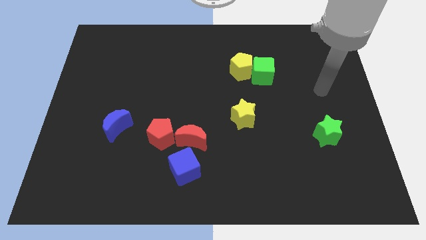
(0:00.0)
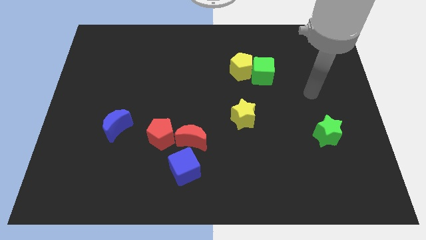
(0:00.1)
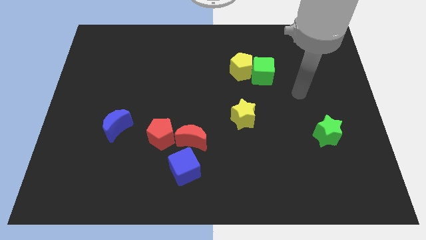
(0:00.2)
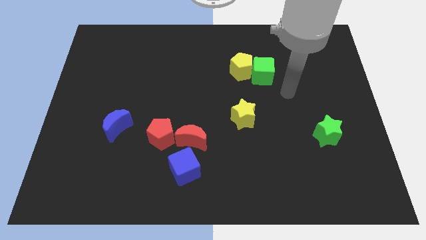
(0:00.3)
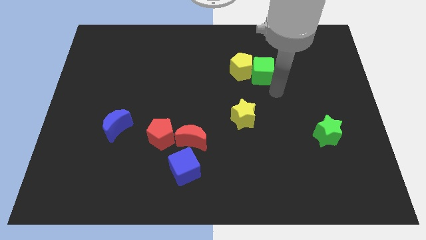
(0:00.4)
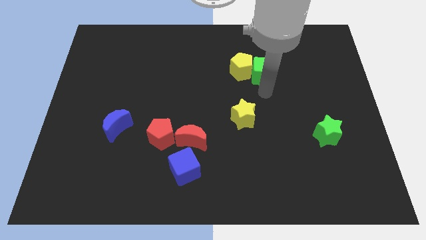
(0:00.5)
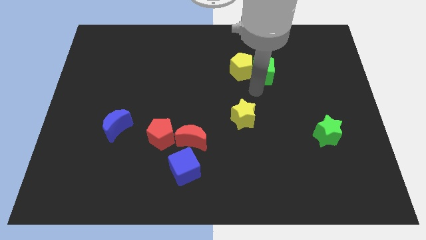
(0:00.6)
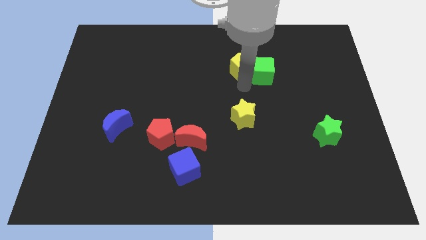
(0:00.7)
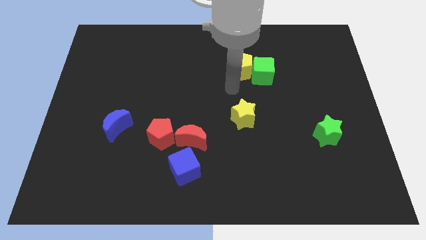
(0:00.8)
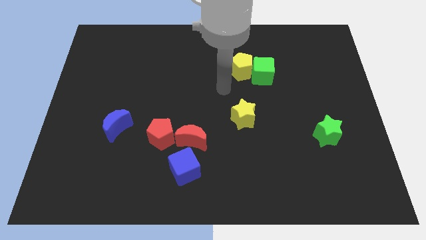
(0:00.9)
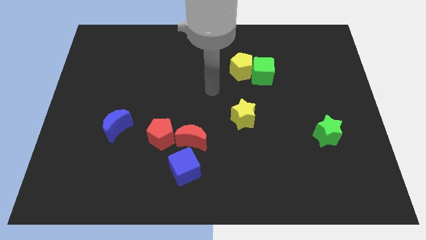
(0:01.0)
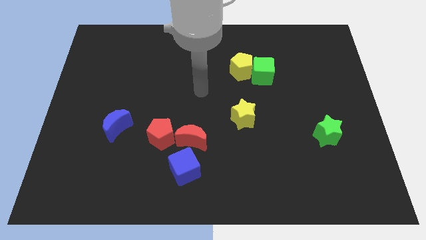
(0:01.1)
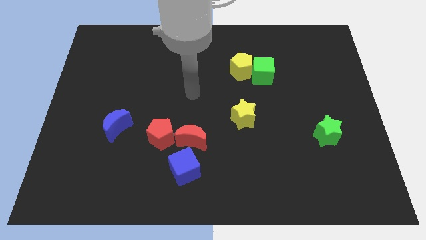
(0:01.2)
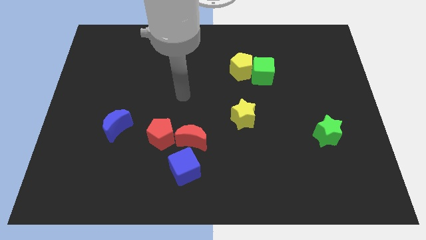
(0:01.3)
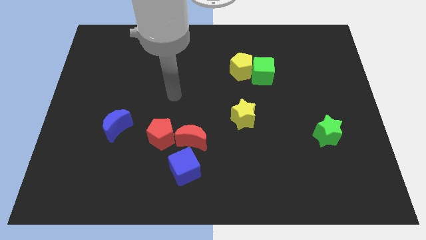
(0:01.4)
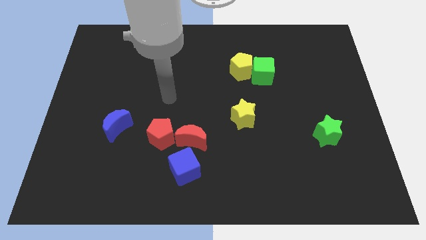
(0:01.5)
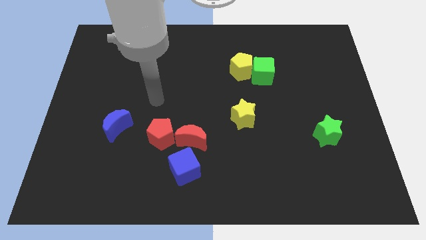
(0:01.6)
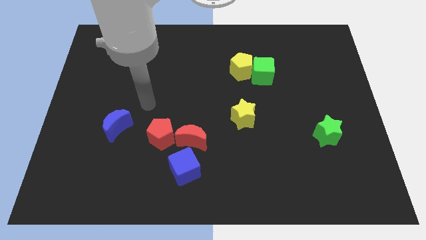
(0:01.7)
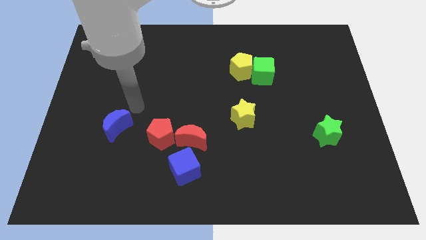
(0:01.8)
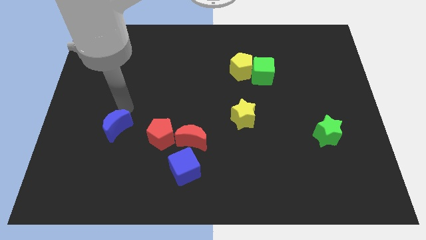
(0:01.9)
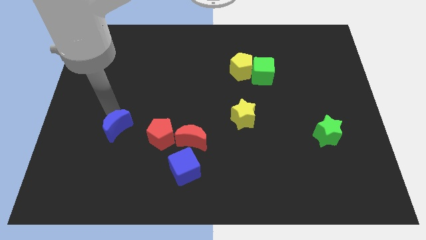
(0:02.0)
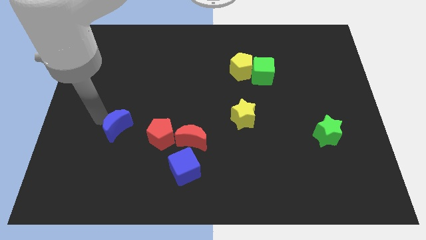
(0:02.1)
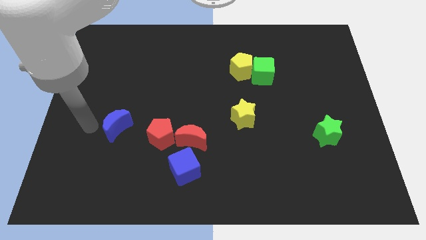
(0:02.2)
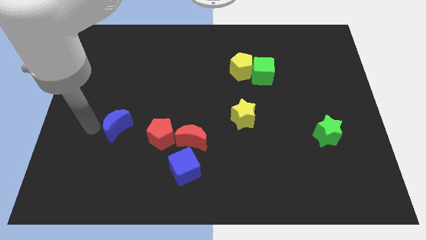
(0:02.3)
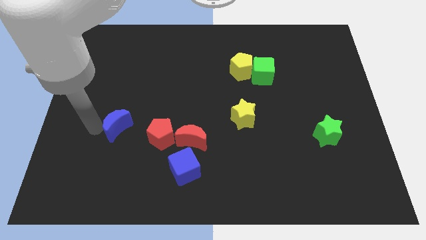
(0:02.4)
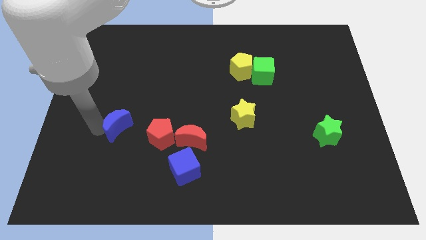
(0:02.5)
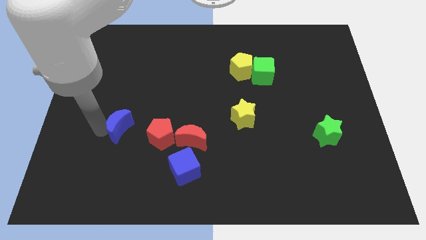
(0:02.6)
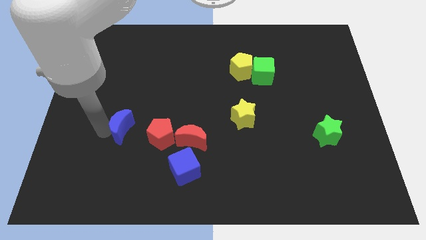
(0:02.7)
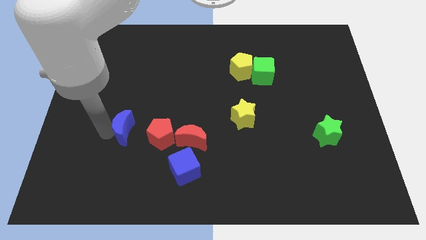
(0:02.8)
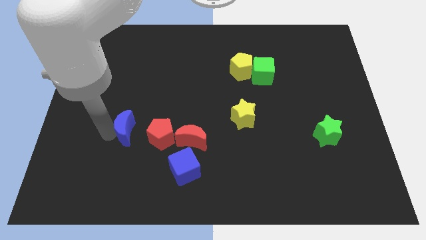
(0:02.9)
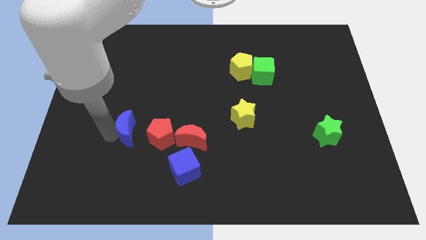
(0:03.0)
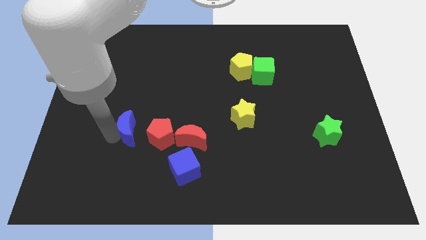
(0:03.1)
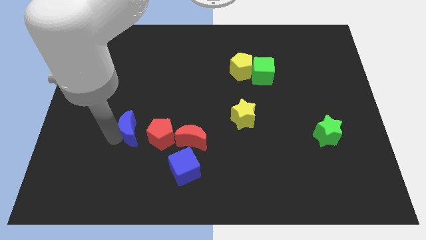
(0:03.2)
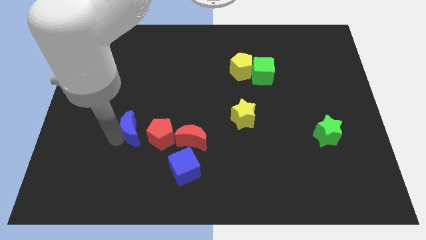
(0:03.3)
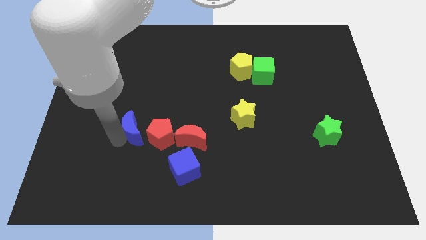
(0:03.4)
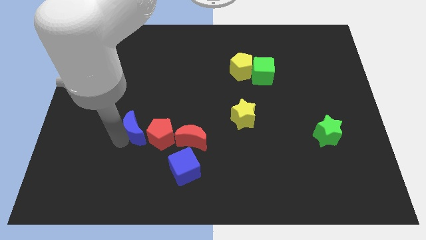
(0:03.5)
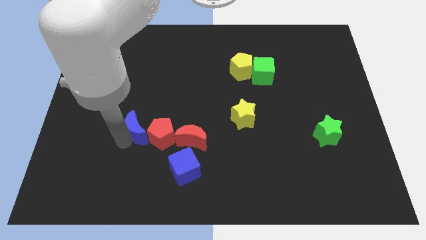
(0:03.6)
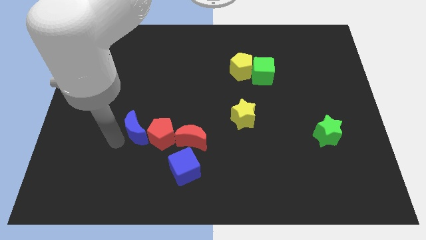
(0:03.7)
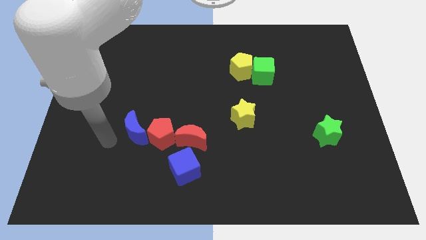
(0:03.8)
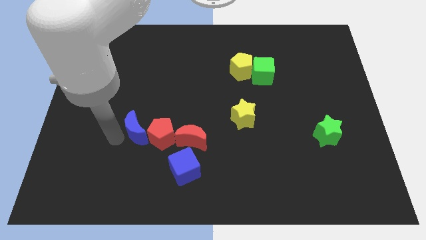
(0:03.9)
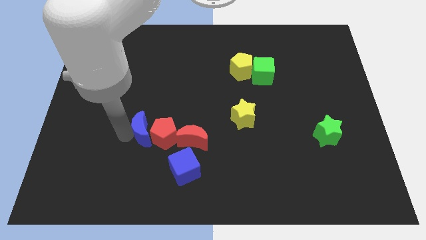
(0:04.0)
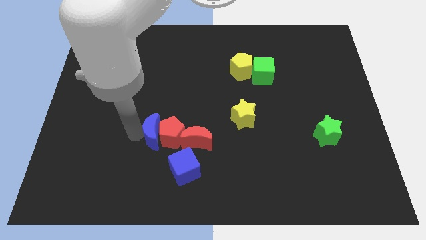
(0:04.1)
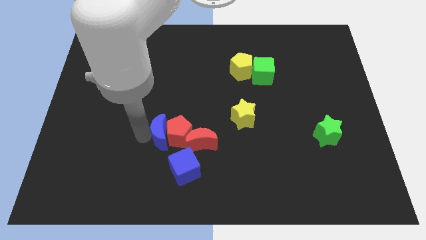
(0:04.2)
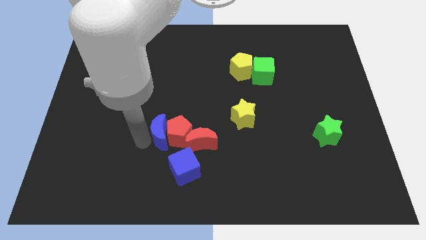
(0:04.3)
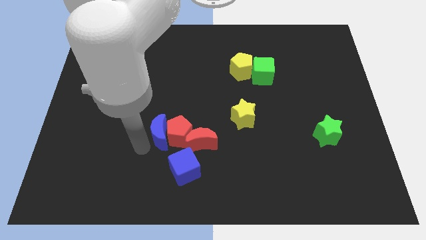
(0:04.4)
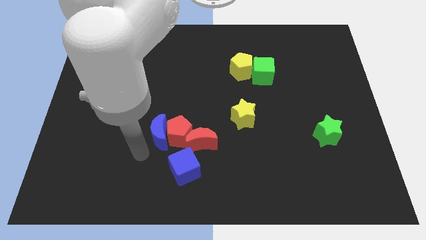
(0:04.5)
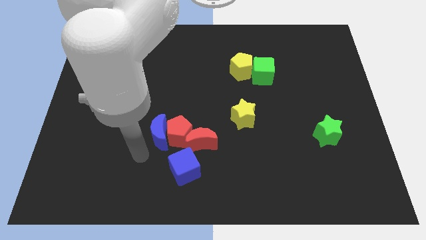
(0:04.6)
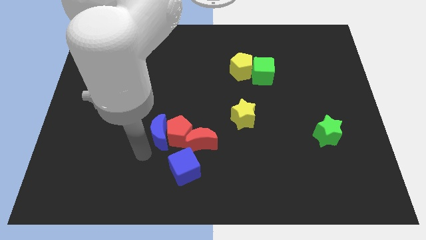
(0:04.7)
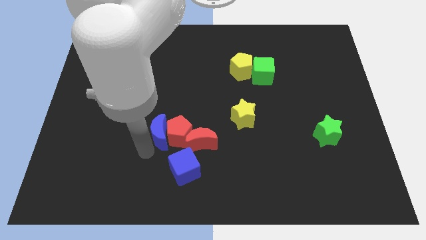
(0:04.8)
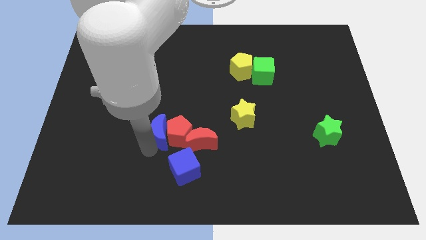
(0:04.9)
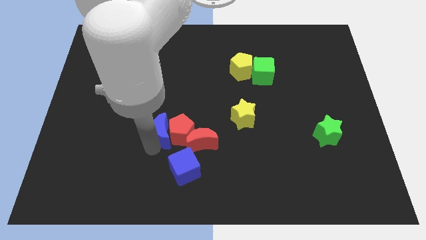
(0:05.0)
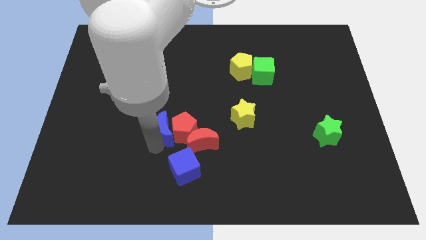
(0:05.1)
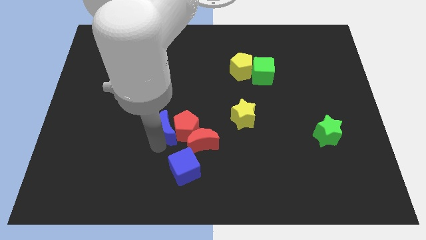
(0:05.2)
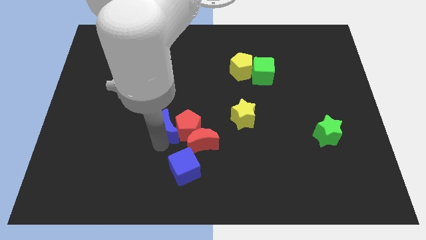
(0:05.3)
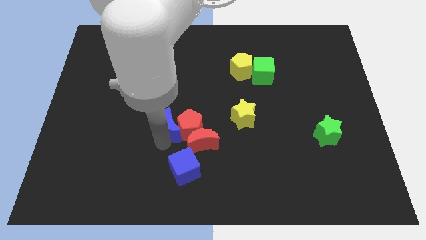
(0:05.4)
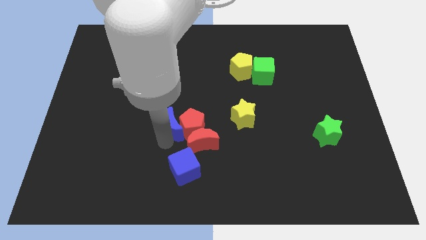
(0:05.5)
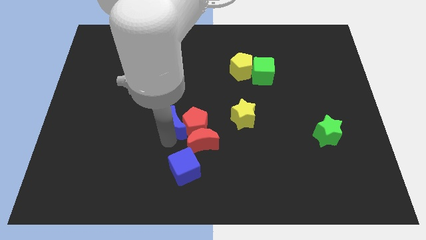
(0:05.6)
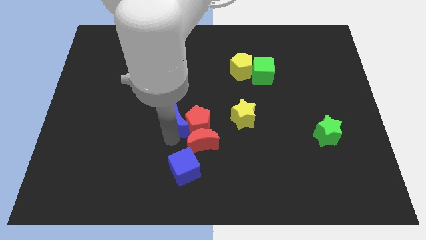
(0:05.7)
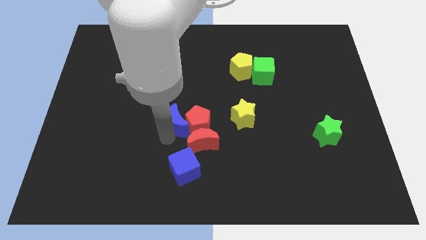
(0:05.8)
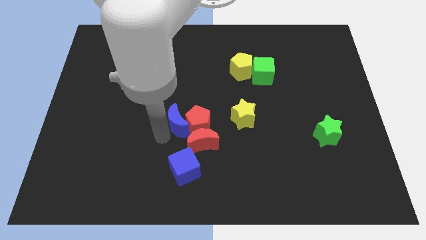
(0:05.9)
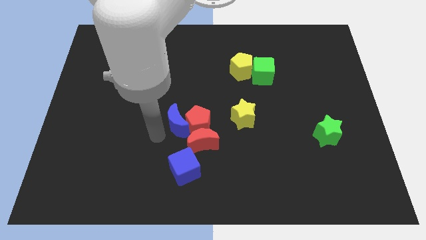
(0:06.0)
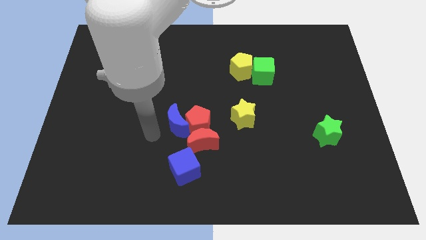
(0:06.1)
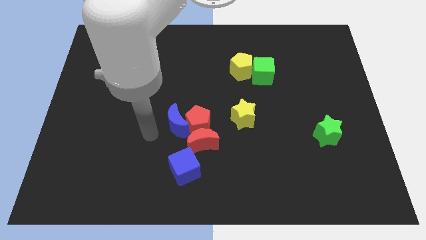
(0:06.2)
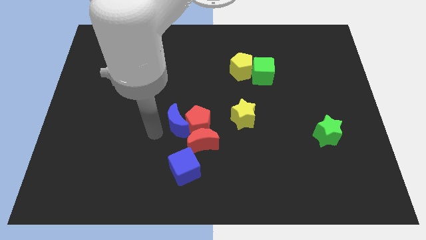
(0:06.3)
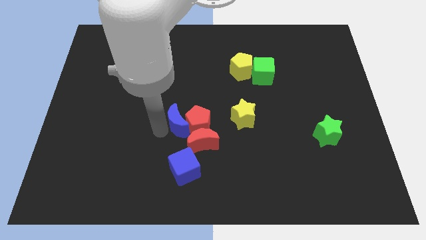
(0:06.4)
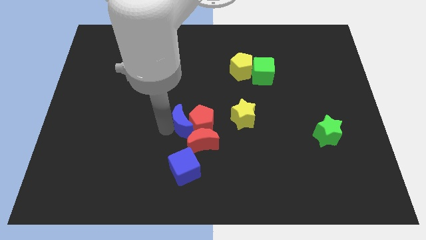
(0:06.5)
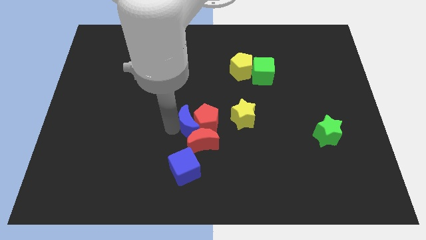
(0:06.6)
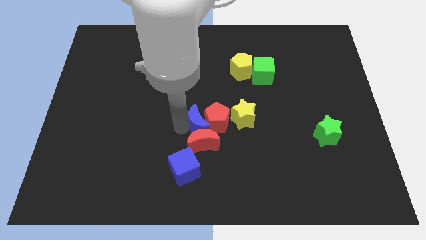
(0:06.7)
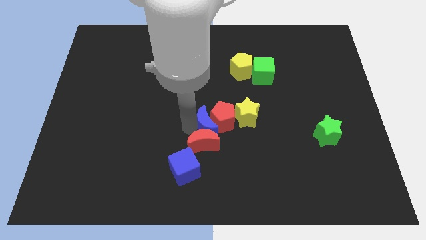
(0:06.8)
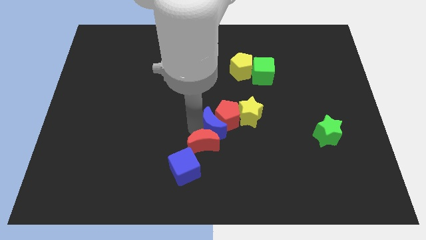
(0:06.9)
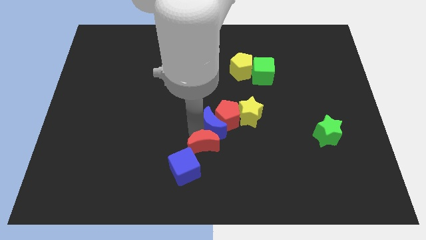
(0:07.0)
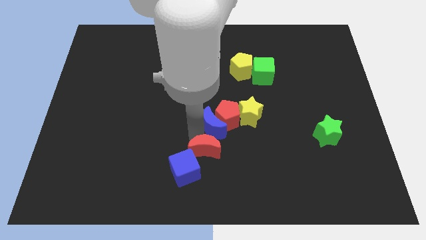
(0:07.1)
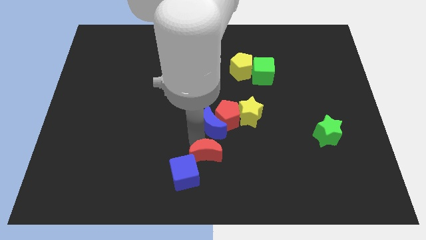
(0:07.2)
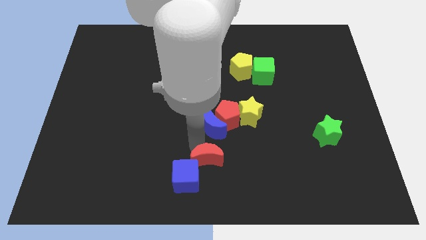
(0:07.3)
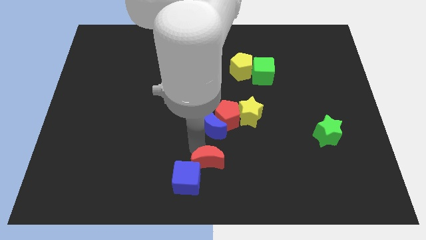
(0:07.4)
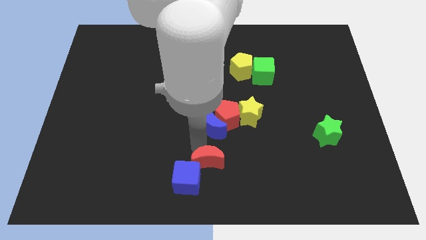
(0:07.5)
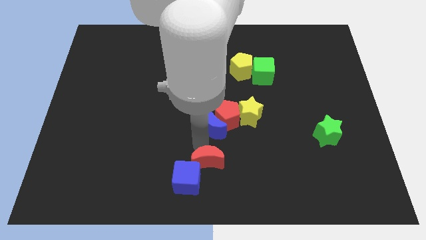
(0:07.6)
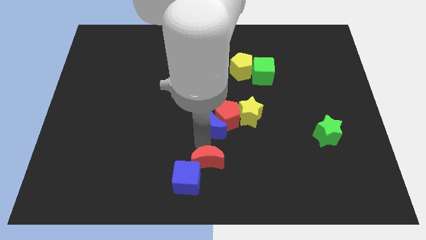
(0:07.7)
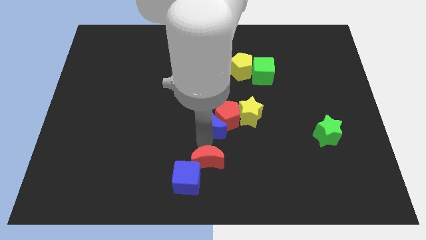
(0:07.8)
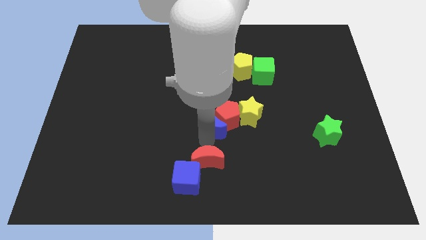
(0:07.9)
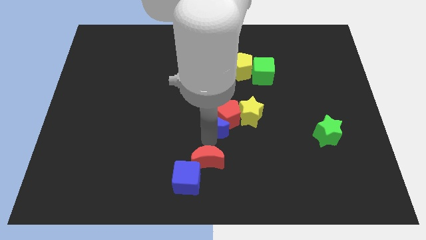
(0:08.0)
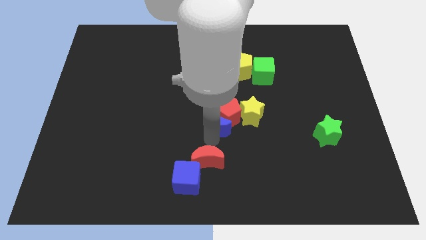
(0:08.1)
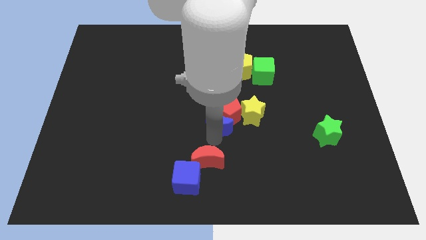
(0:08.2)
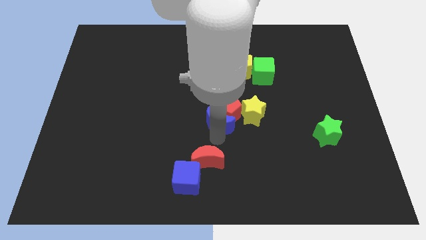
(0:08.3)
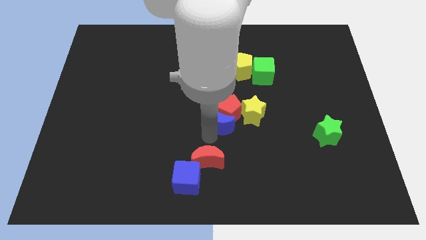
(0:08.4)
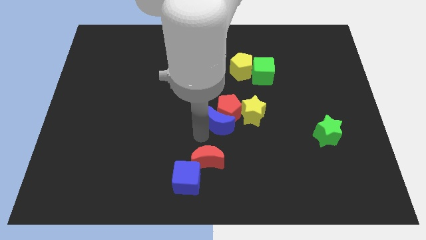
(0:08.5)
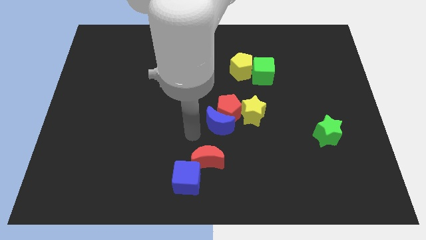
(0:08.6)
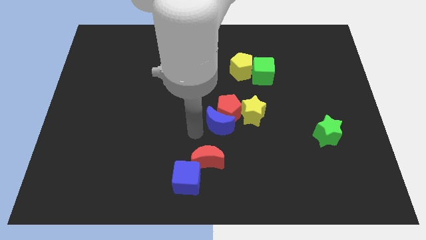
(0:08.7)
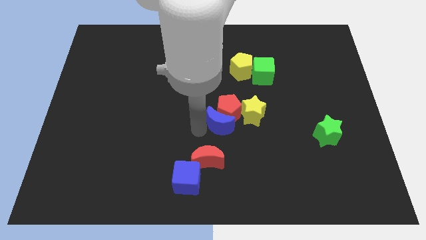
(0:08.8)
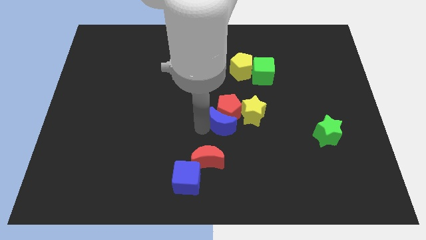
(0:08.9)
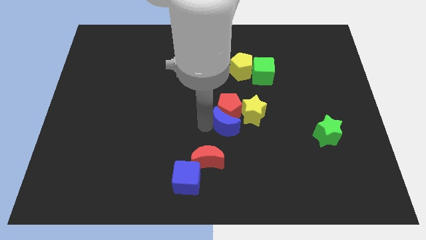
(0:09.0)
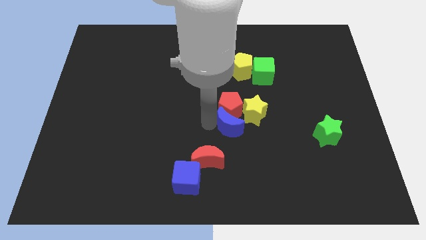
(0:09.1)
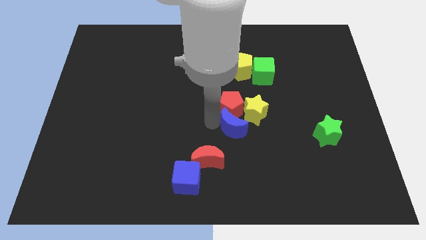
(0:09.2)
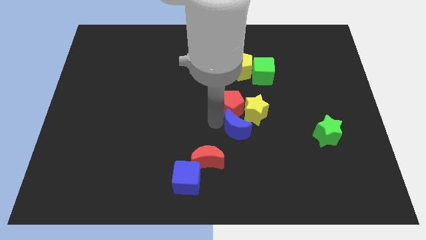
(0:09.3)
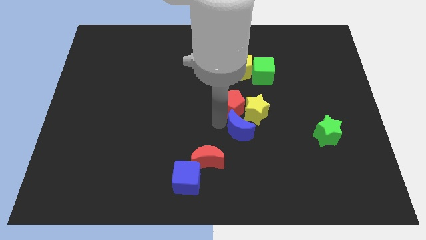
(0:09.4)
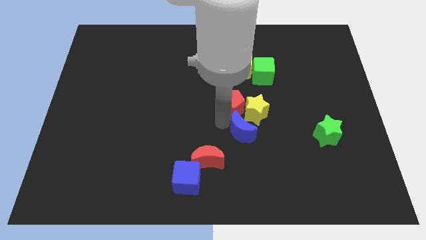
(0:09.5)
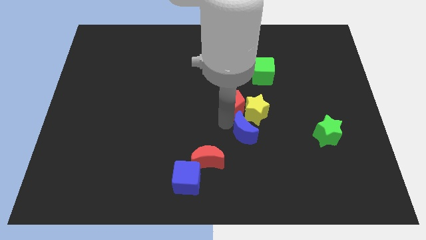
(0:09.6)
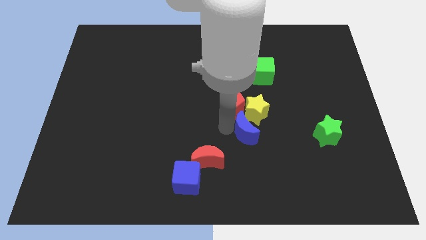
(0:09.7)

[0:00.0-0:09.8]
slide the blue moon to the yellow star
